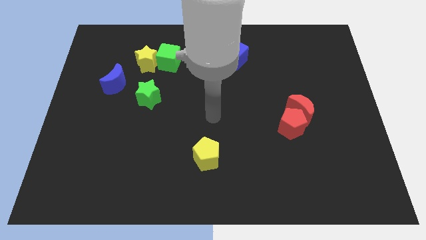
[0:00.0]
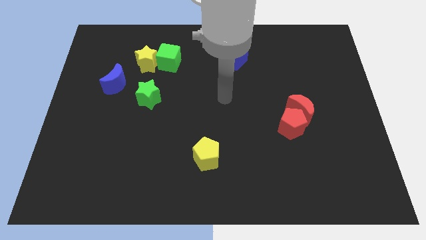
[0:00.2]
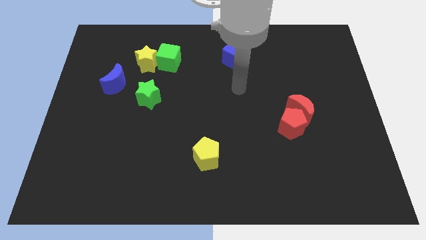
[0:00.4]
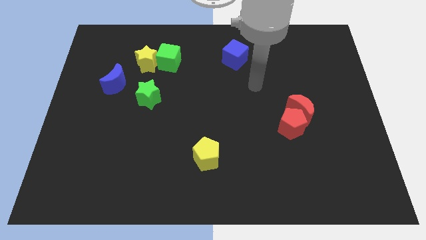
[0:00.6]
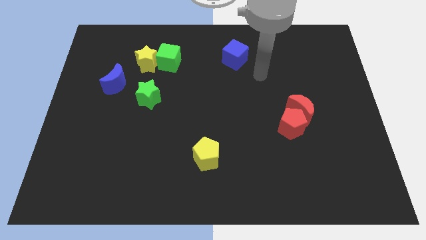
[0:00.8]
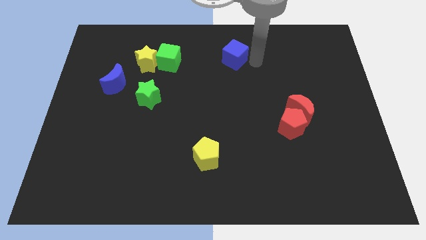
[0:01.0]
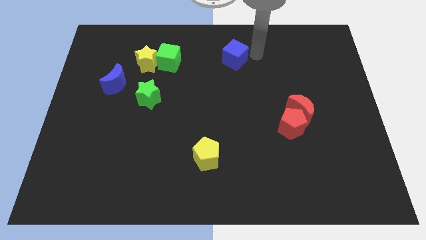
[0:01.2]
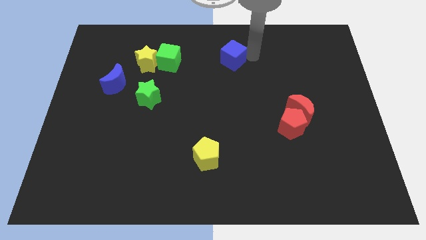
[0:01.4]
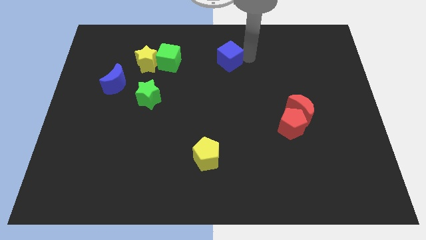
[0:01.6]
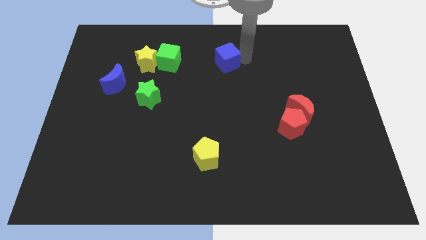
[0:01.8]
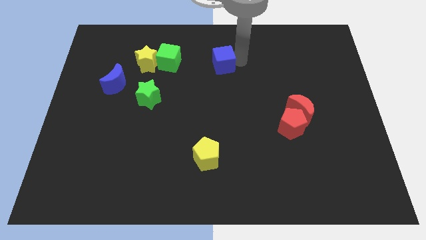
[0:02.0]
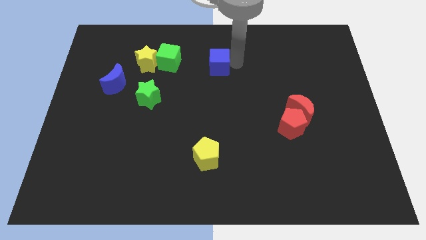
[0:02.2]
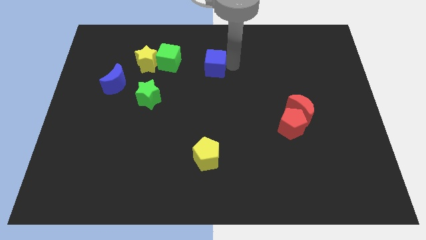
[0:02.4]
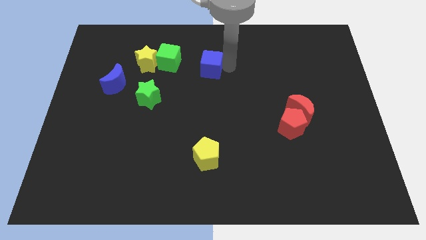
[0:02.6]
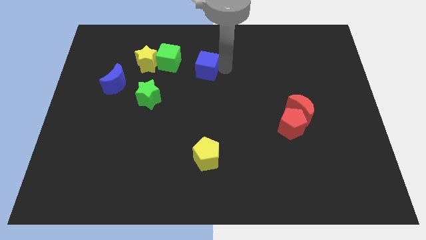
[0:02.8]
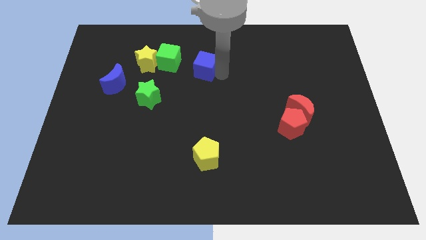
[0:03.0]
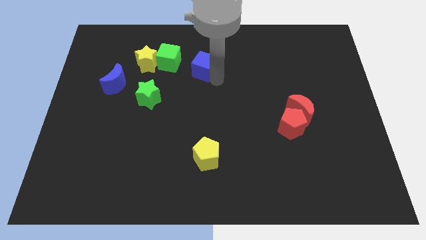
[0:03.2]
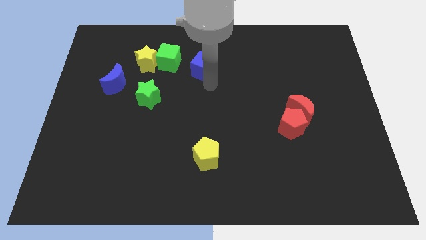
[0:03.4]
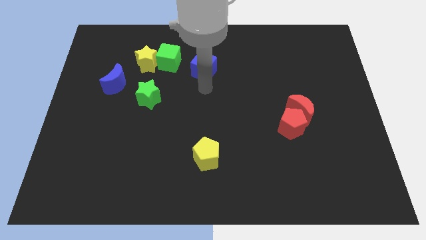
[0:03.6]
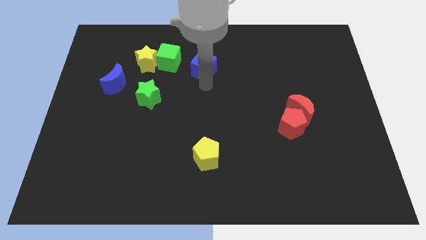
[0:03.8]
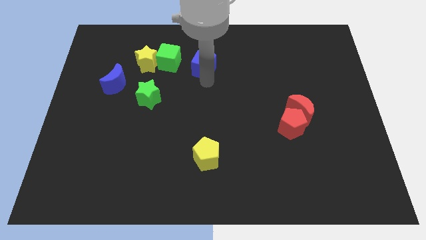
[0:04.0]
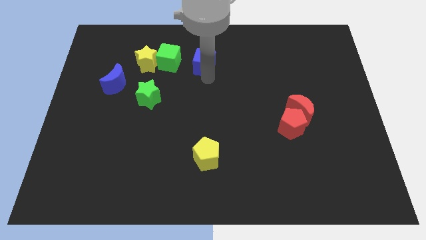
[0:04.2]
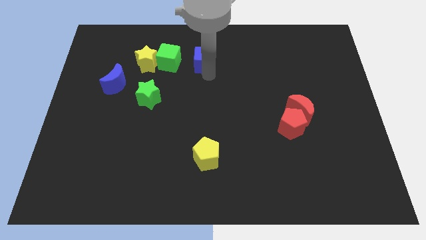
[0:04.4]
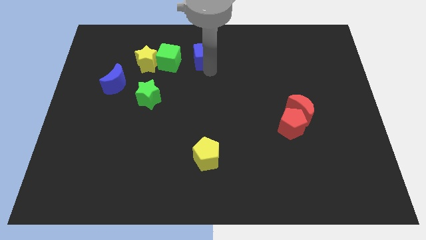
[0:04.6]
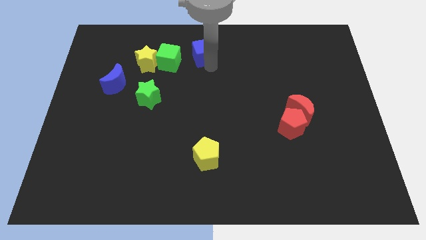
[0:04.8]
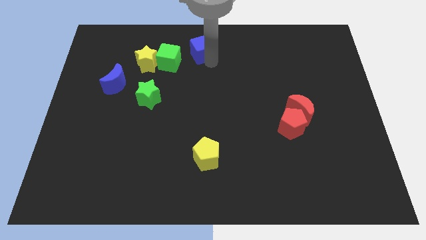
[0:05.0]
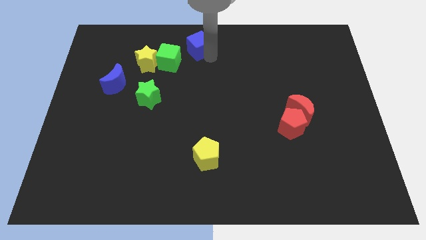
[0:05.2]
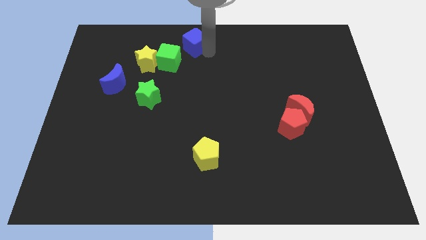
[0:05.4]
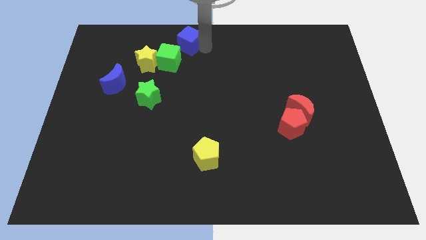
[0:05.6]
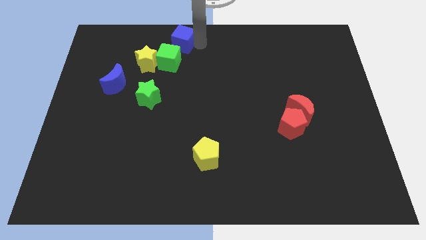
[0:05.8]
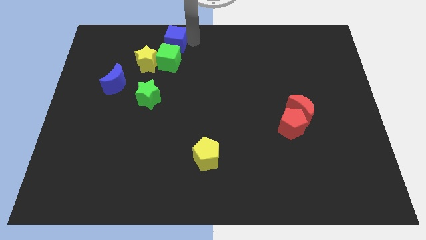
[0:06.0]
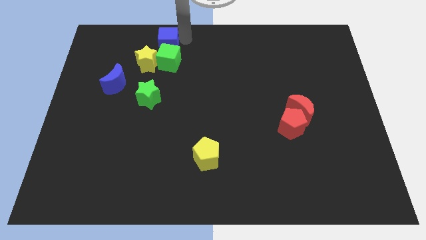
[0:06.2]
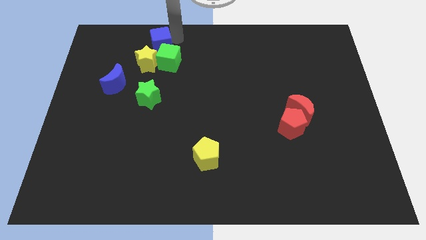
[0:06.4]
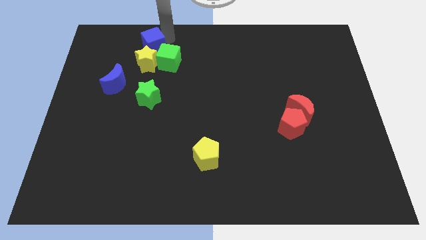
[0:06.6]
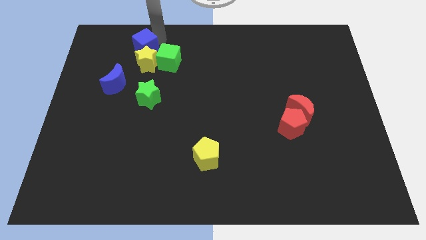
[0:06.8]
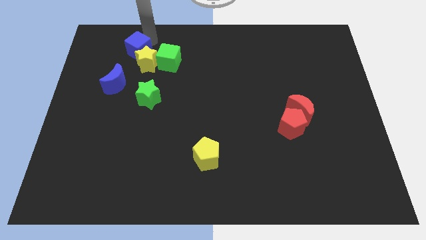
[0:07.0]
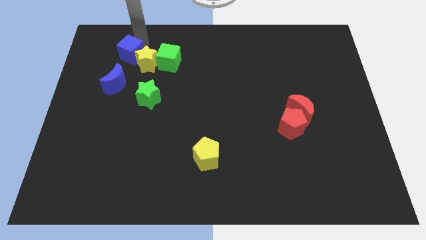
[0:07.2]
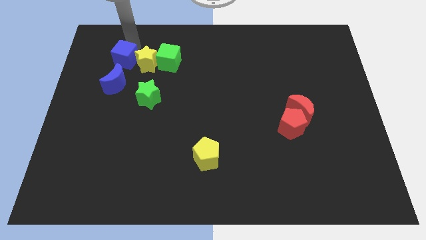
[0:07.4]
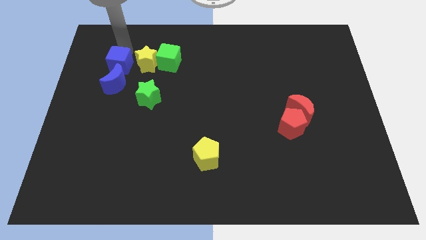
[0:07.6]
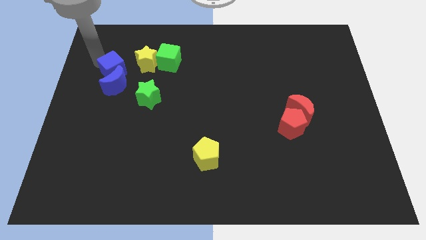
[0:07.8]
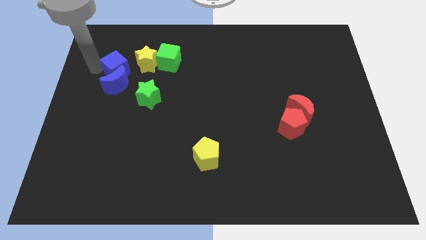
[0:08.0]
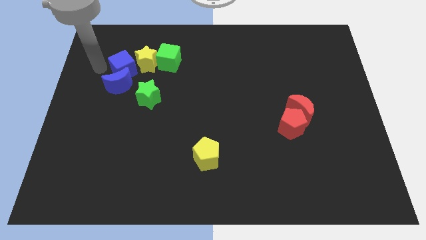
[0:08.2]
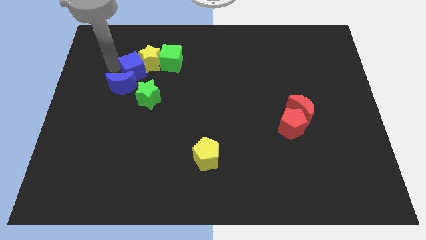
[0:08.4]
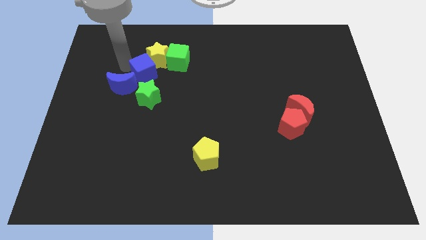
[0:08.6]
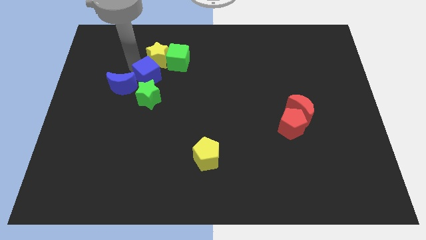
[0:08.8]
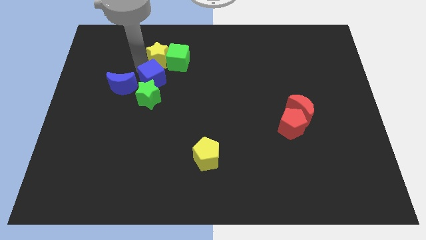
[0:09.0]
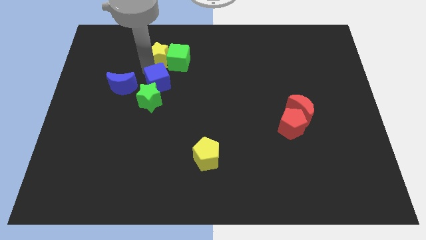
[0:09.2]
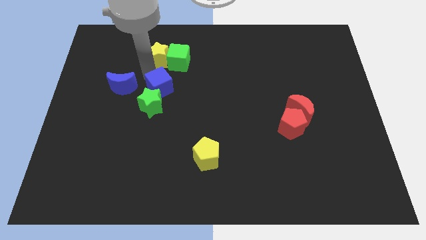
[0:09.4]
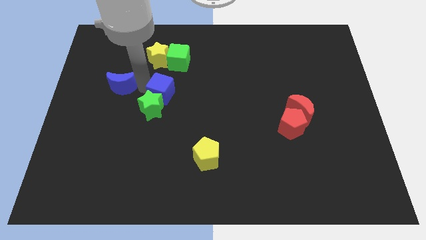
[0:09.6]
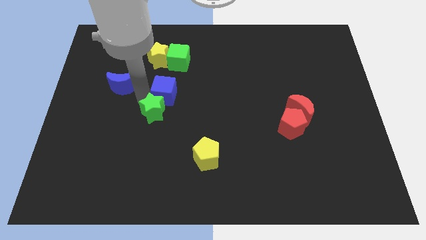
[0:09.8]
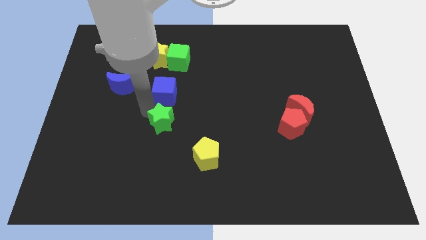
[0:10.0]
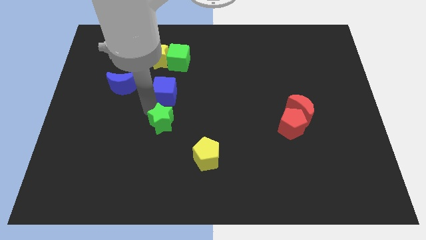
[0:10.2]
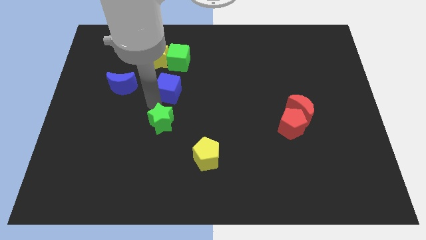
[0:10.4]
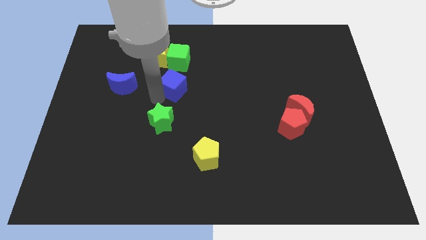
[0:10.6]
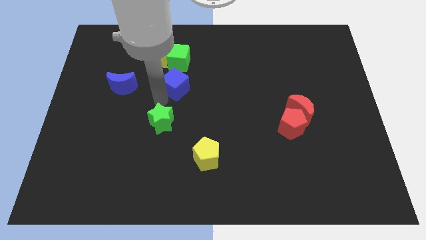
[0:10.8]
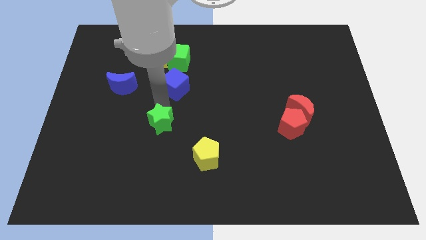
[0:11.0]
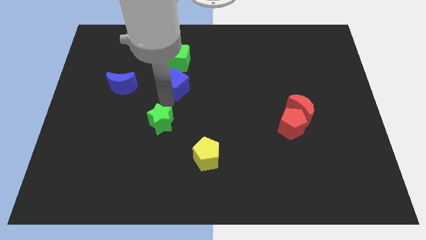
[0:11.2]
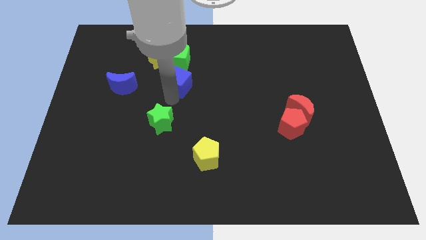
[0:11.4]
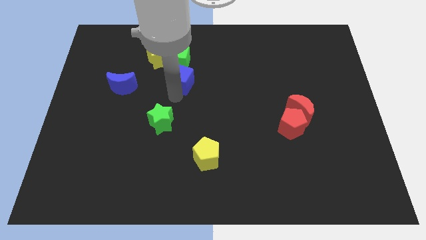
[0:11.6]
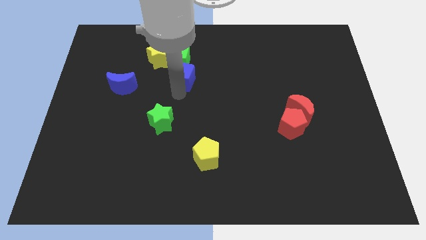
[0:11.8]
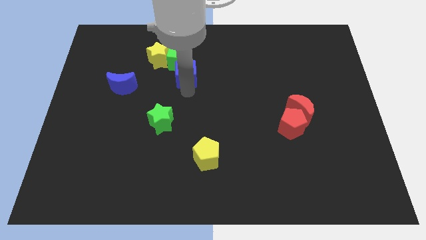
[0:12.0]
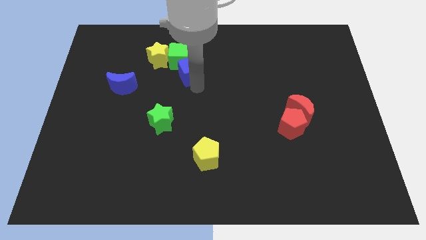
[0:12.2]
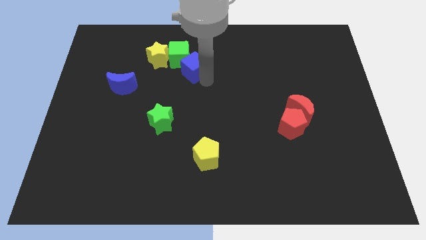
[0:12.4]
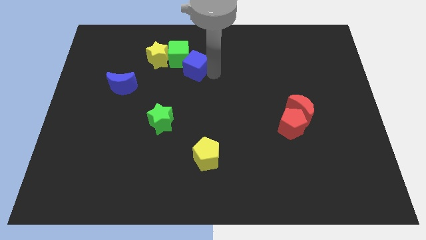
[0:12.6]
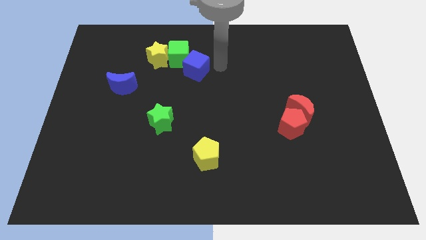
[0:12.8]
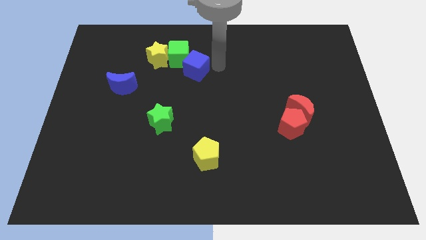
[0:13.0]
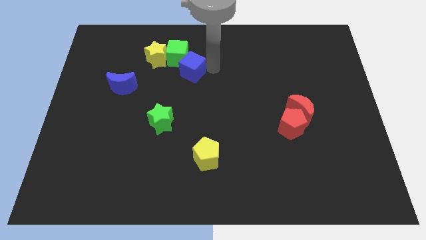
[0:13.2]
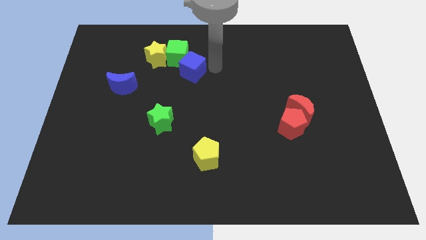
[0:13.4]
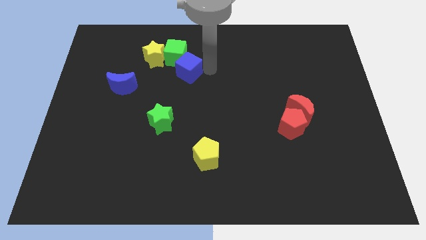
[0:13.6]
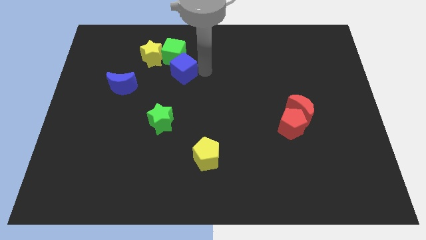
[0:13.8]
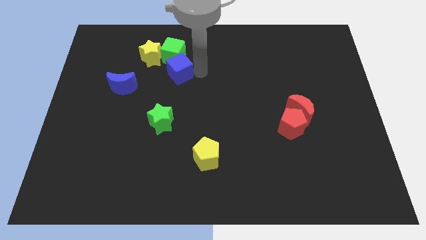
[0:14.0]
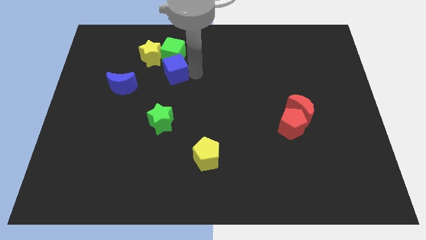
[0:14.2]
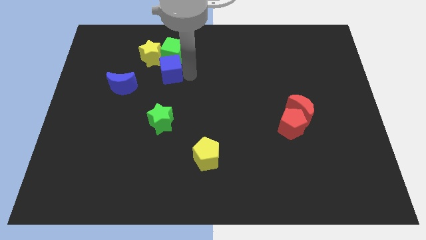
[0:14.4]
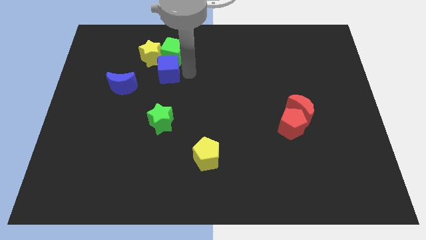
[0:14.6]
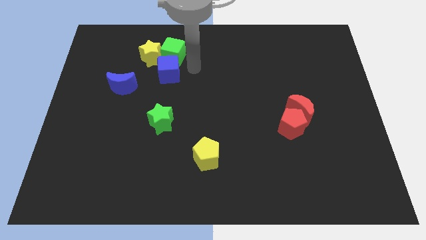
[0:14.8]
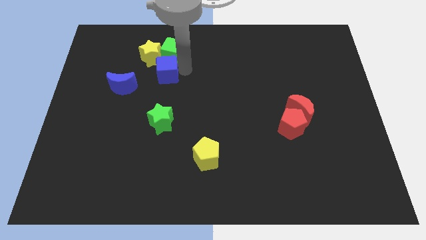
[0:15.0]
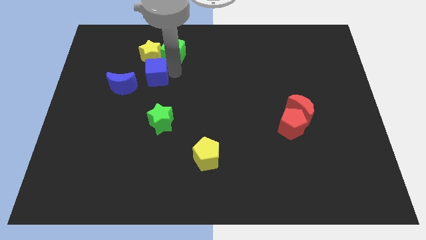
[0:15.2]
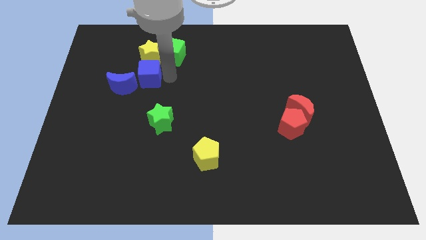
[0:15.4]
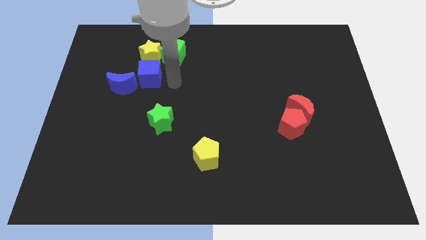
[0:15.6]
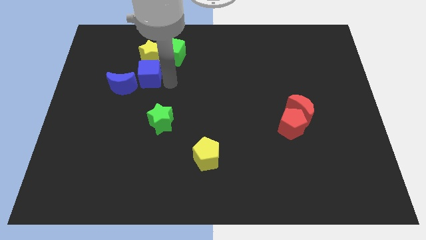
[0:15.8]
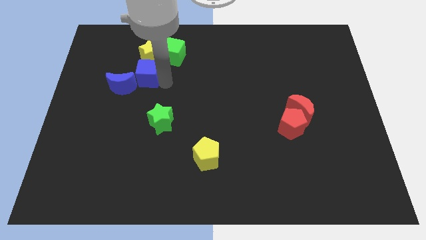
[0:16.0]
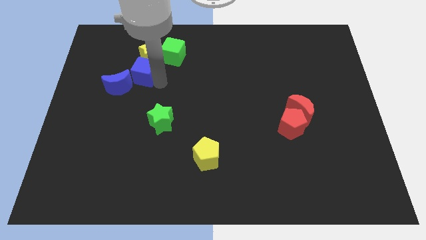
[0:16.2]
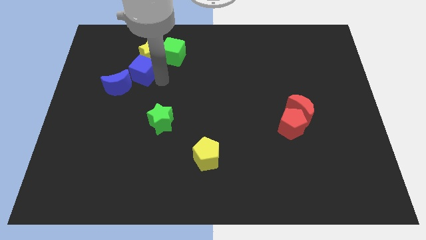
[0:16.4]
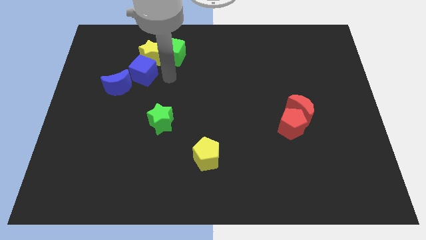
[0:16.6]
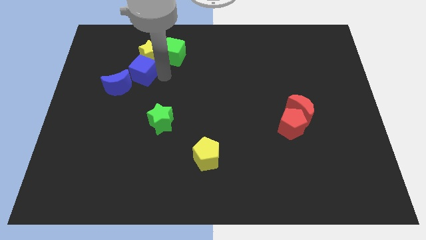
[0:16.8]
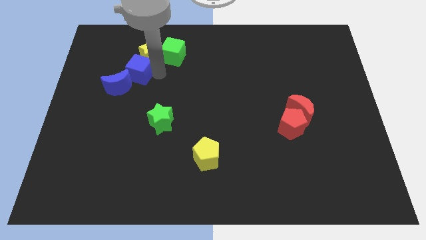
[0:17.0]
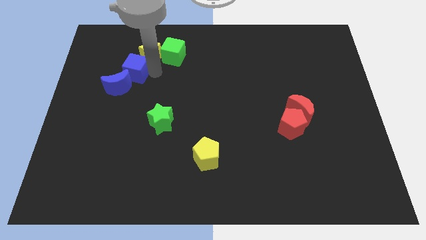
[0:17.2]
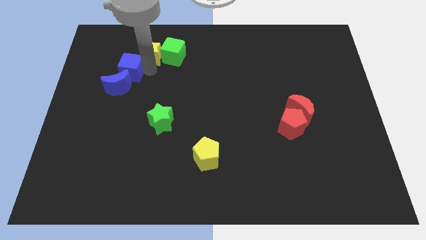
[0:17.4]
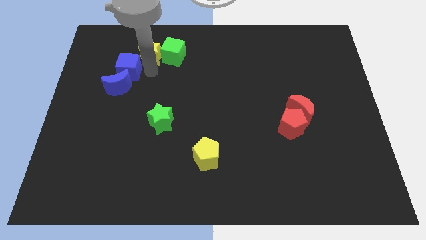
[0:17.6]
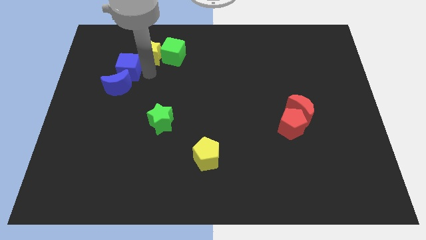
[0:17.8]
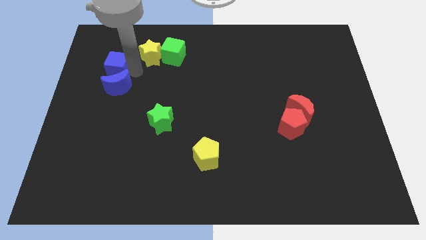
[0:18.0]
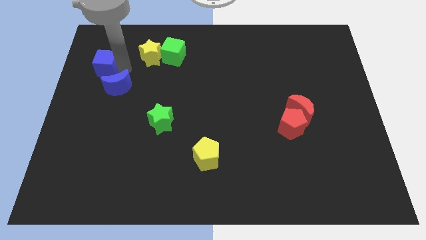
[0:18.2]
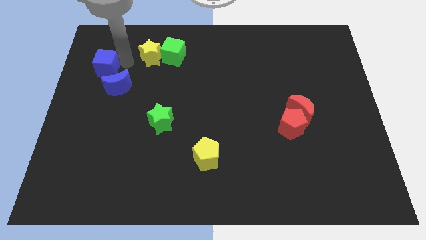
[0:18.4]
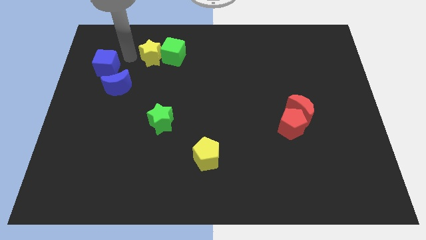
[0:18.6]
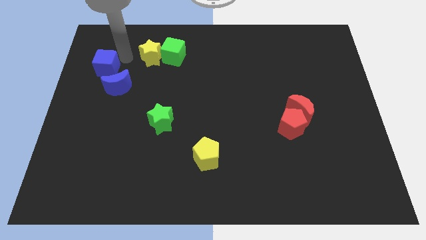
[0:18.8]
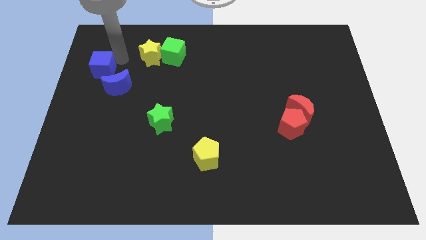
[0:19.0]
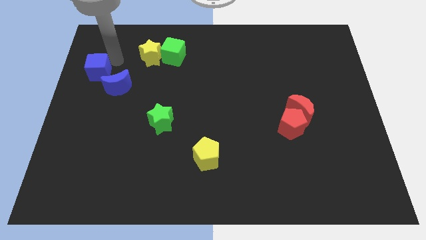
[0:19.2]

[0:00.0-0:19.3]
push the blue cube to the left side of the board
